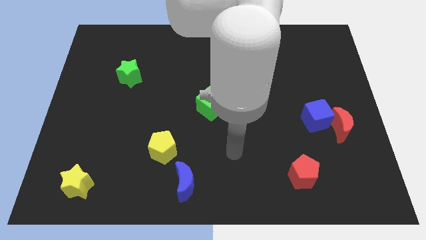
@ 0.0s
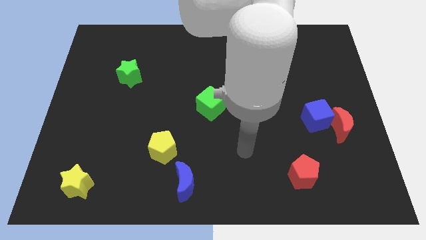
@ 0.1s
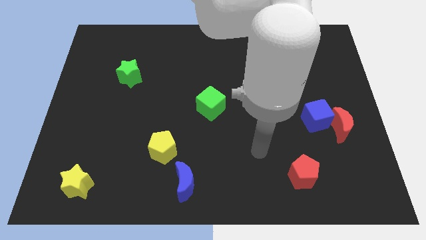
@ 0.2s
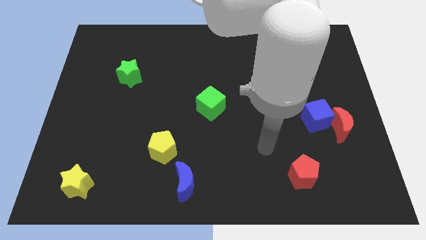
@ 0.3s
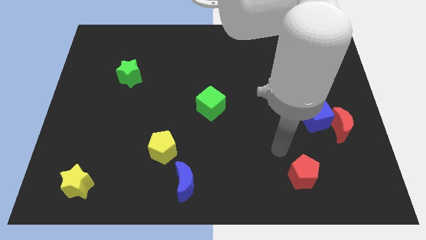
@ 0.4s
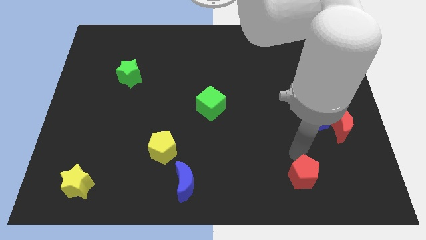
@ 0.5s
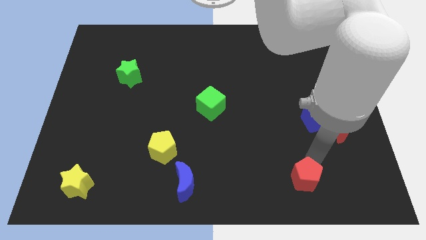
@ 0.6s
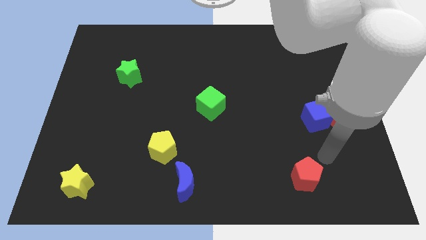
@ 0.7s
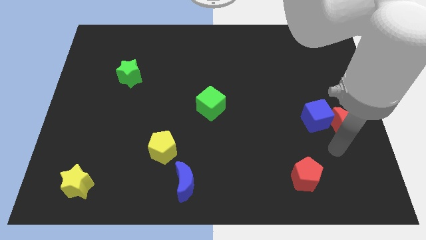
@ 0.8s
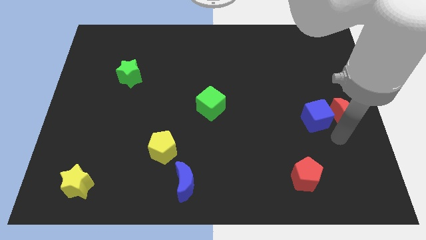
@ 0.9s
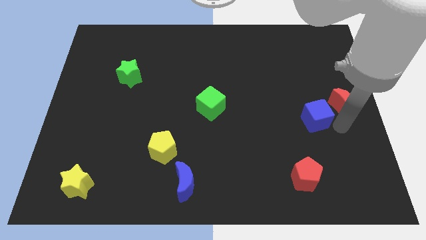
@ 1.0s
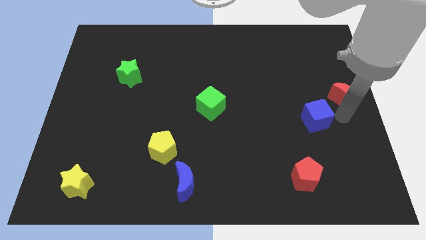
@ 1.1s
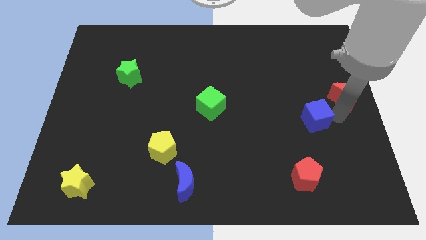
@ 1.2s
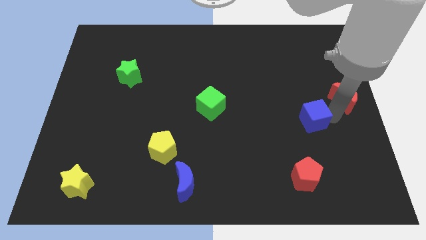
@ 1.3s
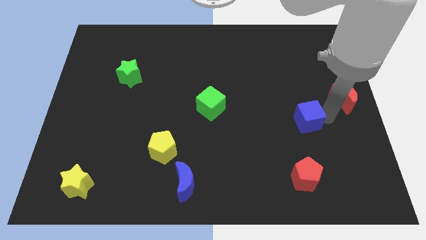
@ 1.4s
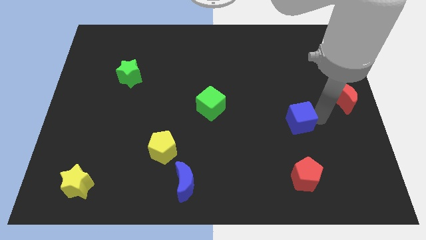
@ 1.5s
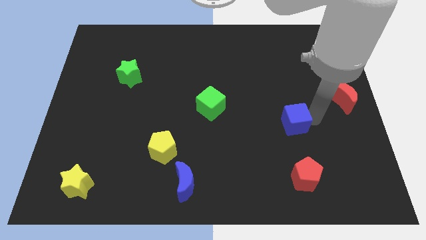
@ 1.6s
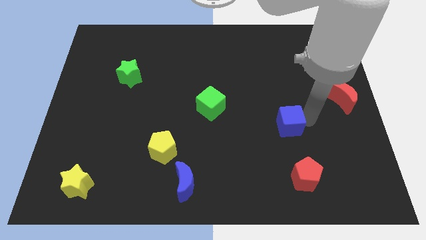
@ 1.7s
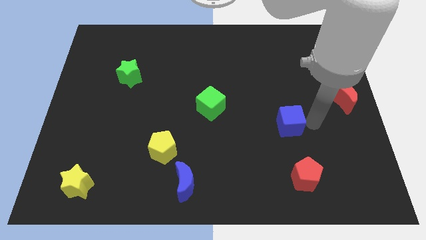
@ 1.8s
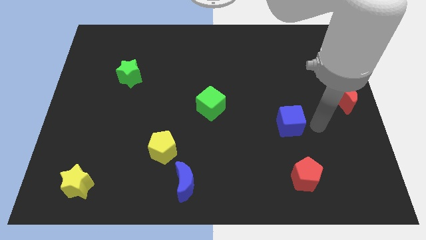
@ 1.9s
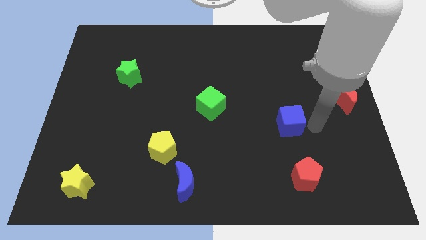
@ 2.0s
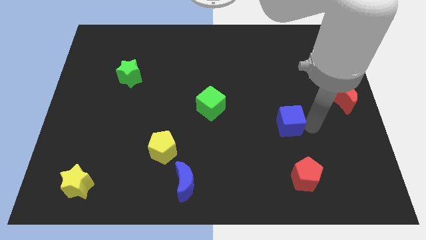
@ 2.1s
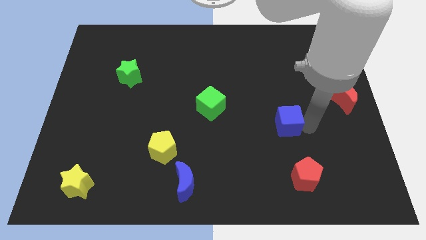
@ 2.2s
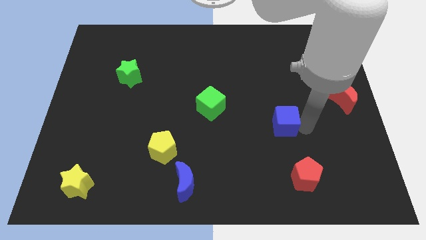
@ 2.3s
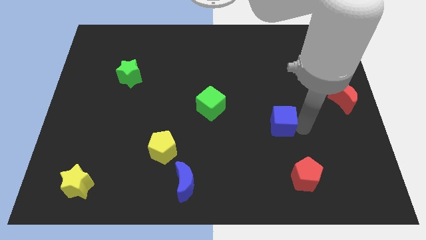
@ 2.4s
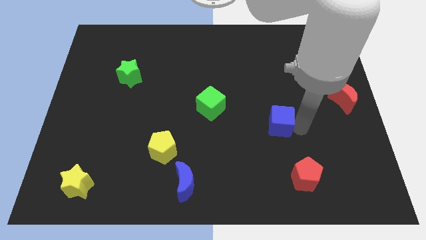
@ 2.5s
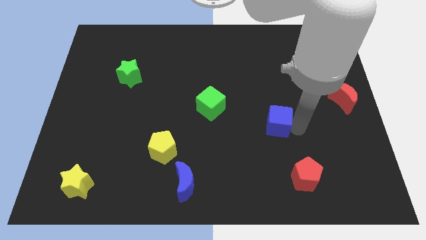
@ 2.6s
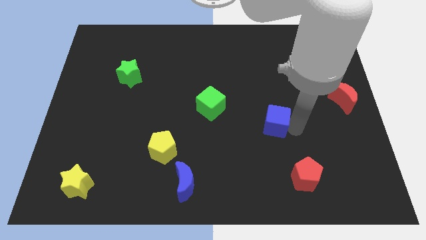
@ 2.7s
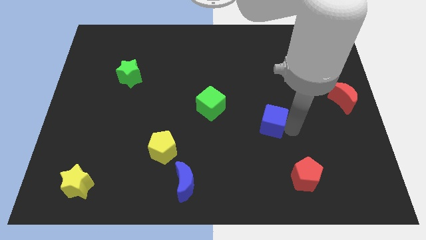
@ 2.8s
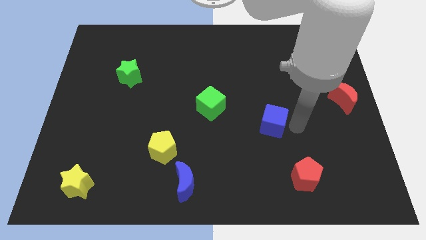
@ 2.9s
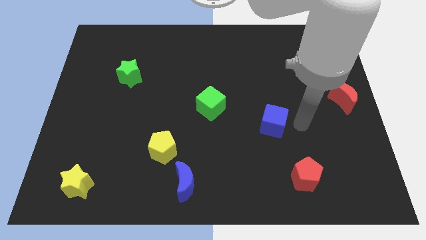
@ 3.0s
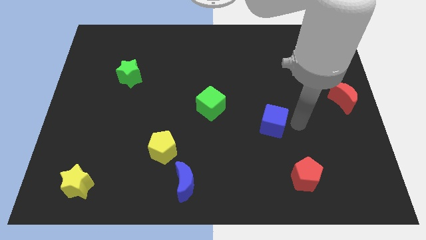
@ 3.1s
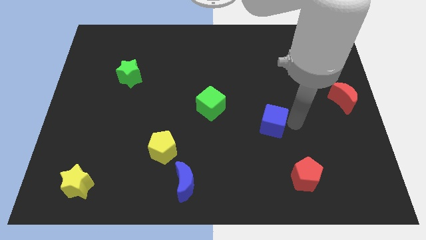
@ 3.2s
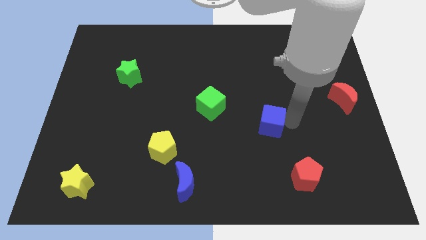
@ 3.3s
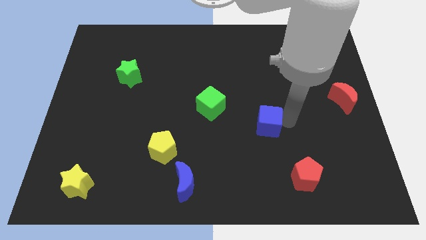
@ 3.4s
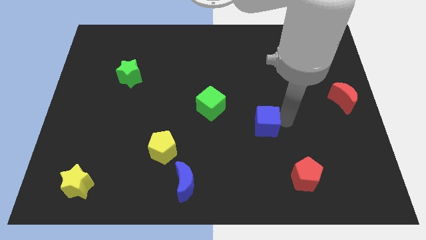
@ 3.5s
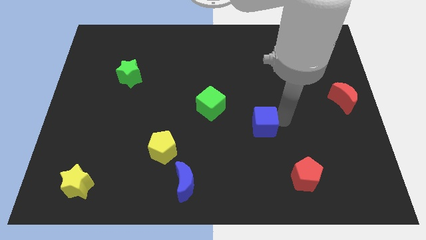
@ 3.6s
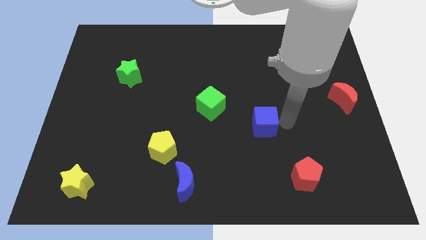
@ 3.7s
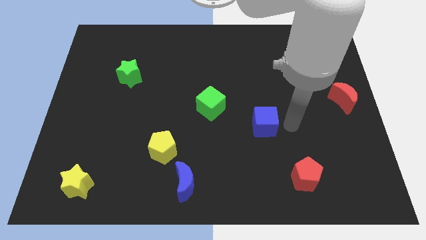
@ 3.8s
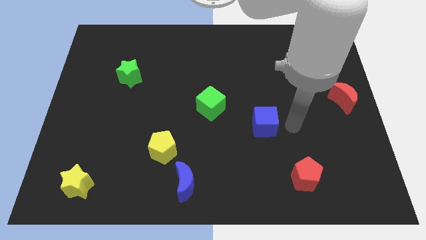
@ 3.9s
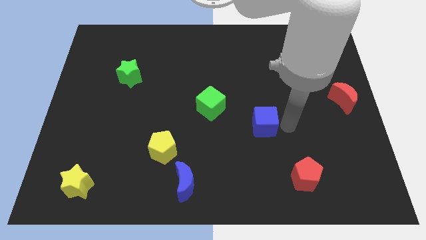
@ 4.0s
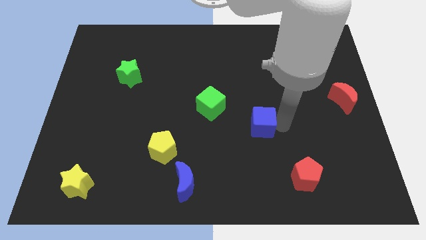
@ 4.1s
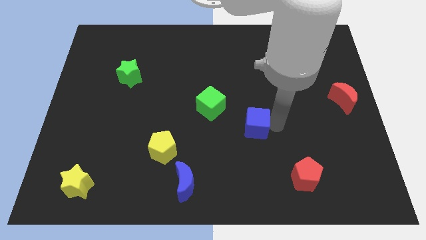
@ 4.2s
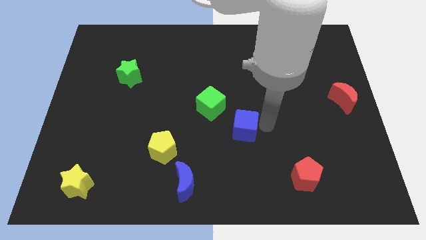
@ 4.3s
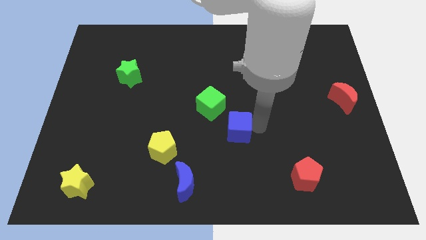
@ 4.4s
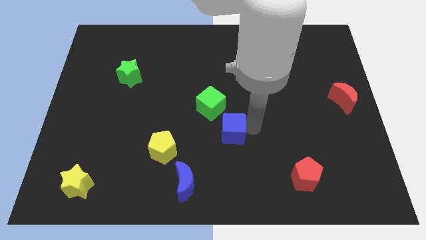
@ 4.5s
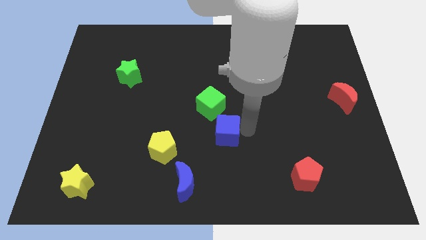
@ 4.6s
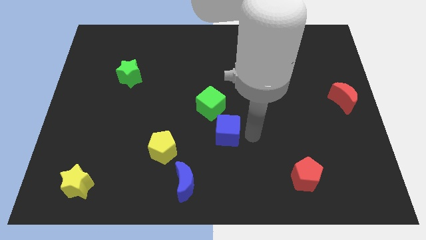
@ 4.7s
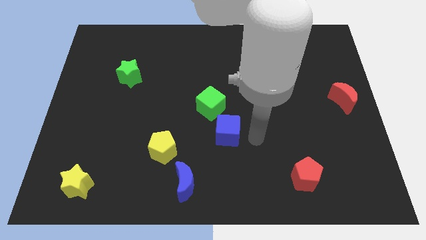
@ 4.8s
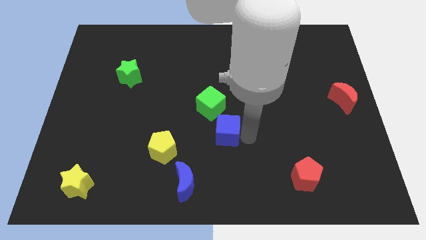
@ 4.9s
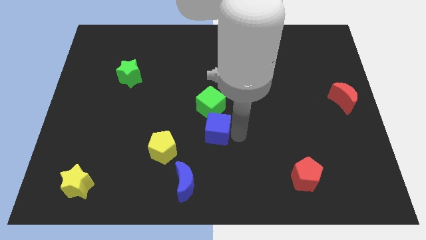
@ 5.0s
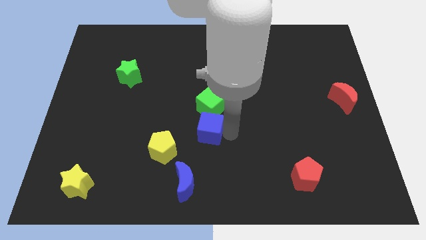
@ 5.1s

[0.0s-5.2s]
slide the blue cube to the bottom left of the green cube

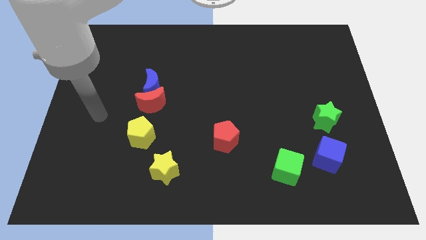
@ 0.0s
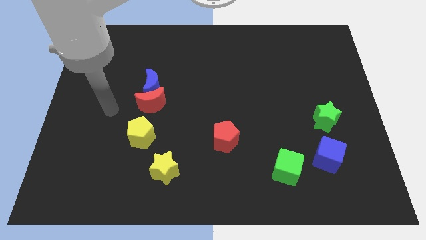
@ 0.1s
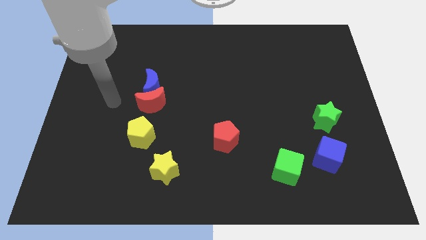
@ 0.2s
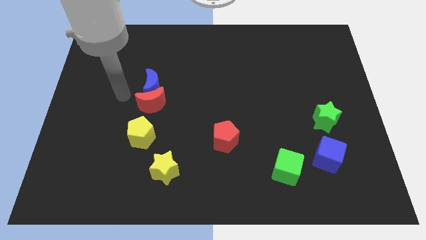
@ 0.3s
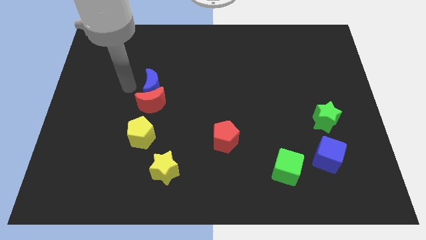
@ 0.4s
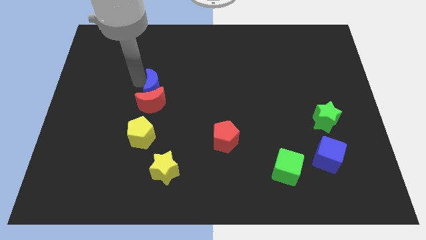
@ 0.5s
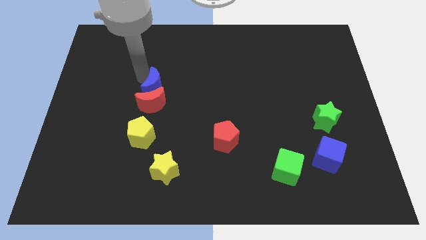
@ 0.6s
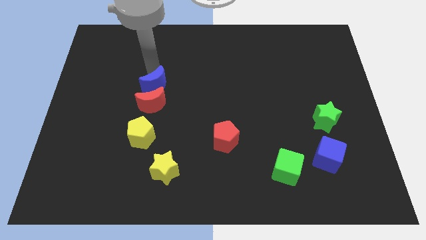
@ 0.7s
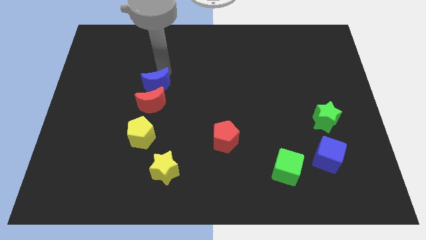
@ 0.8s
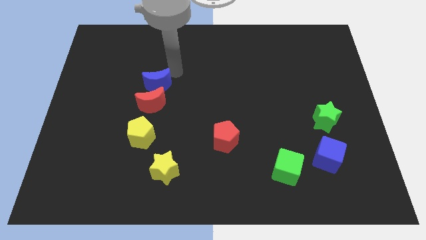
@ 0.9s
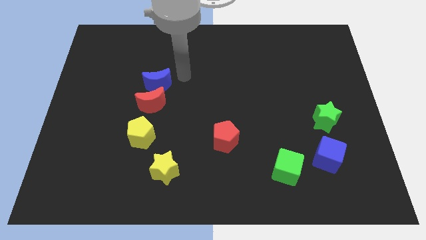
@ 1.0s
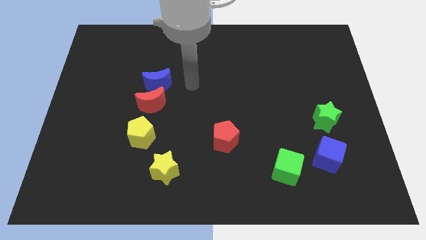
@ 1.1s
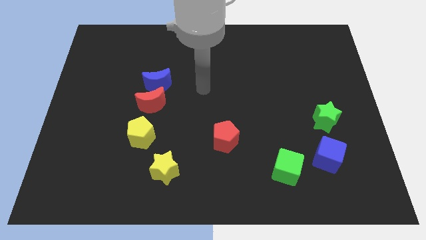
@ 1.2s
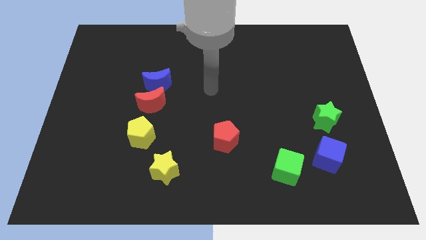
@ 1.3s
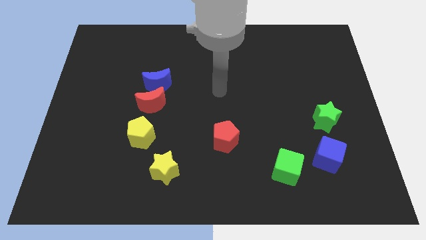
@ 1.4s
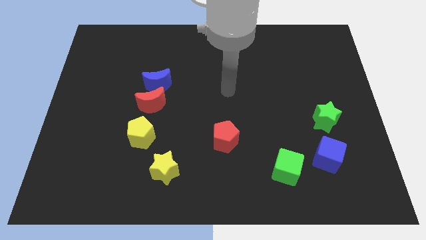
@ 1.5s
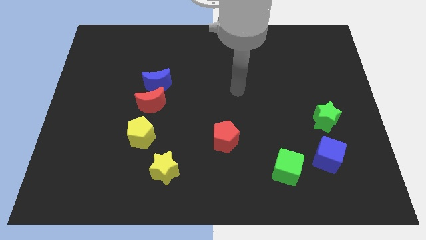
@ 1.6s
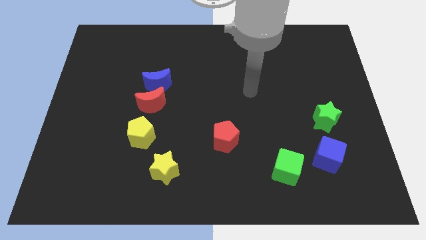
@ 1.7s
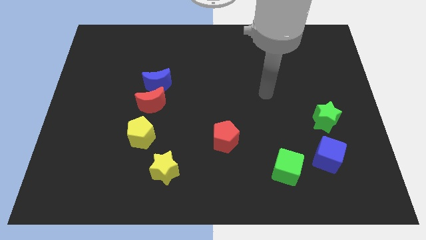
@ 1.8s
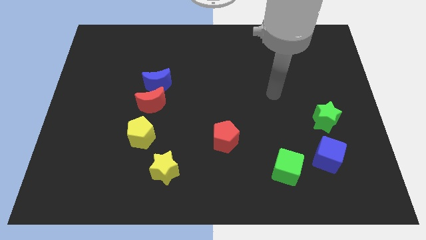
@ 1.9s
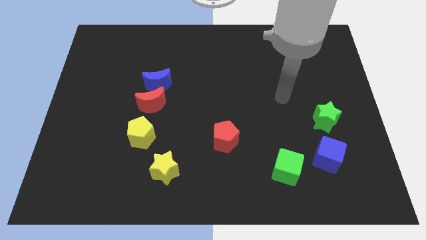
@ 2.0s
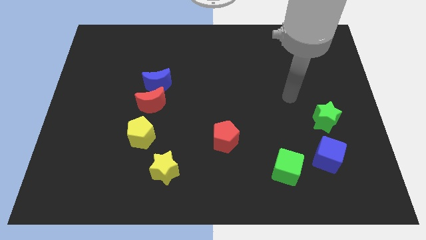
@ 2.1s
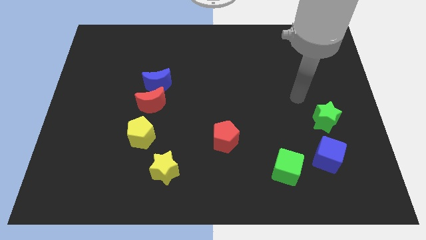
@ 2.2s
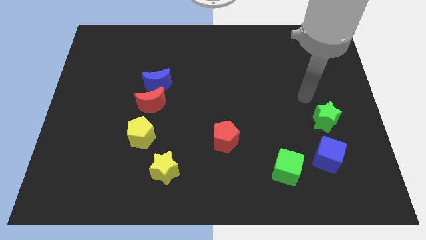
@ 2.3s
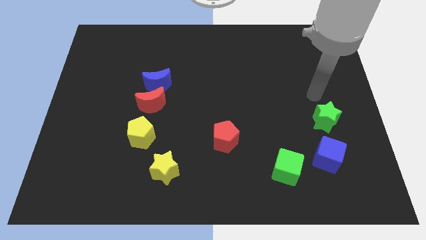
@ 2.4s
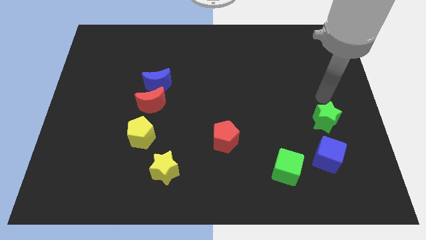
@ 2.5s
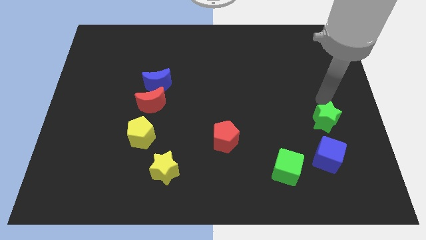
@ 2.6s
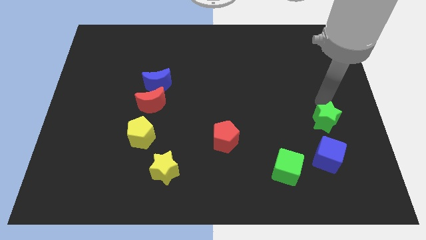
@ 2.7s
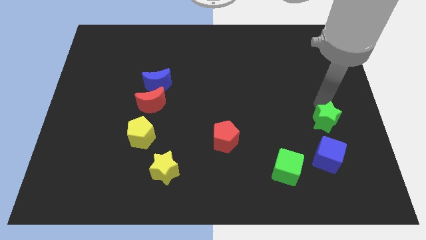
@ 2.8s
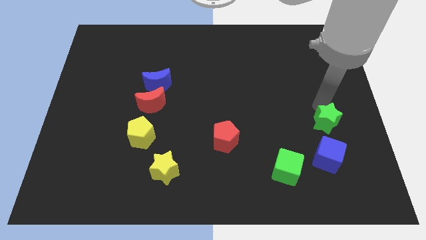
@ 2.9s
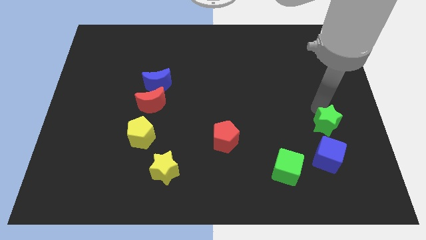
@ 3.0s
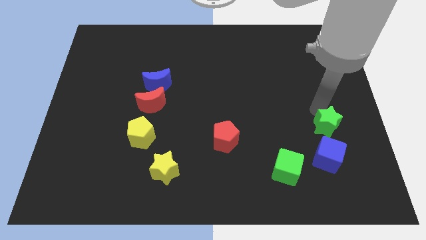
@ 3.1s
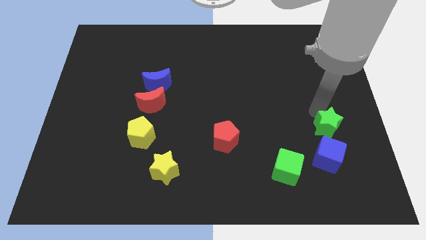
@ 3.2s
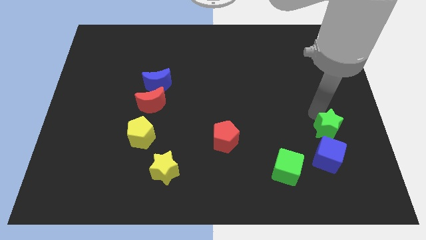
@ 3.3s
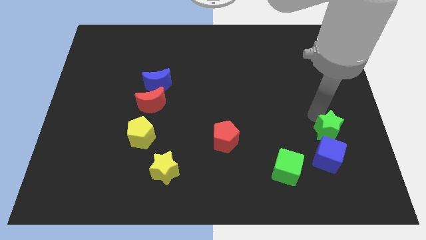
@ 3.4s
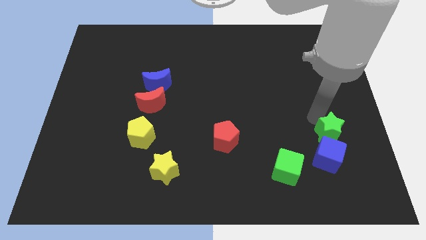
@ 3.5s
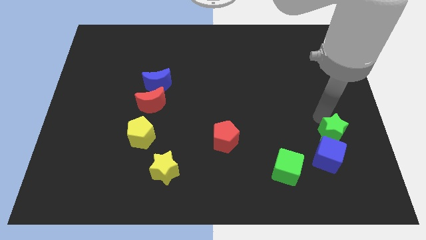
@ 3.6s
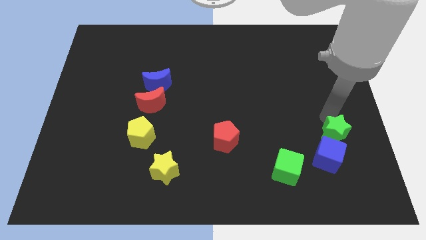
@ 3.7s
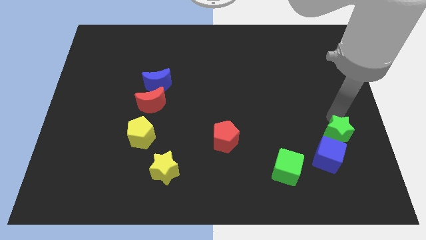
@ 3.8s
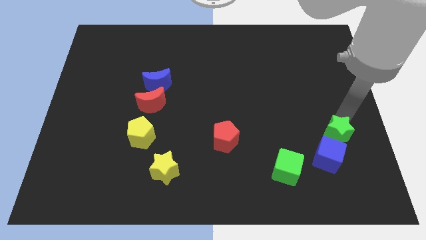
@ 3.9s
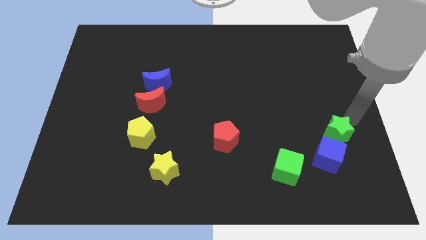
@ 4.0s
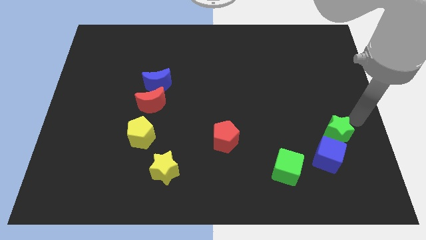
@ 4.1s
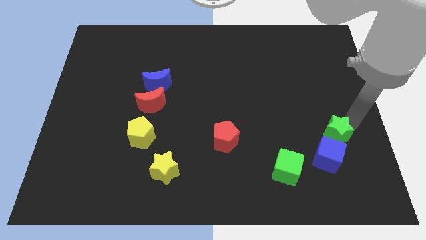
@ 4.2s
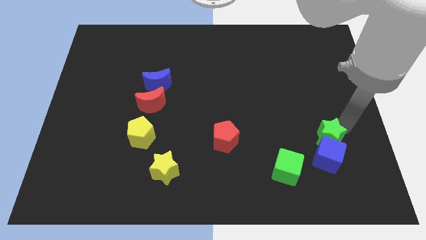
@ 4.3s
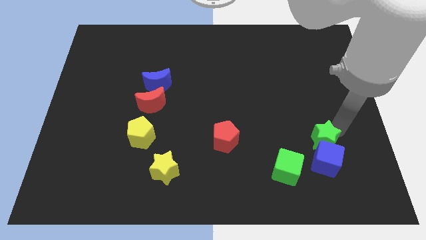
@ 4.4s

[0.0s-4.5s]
slide the green star to the top right of the green cube
